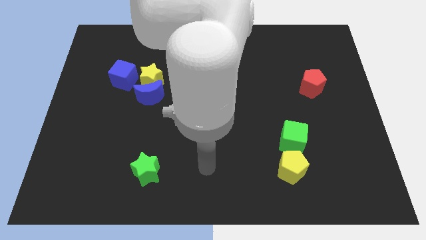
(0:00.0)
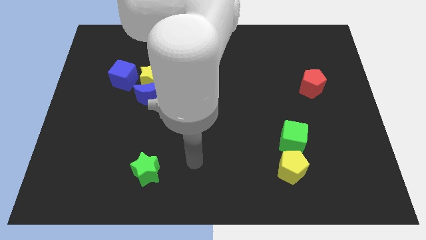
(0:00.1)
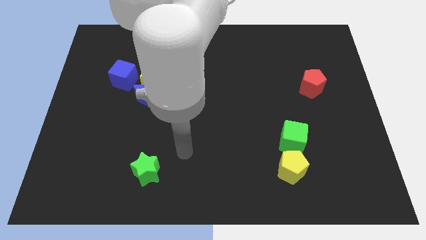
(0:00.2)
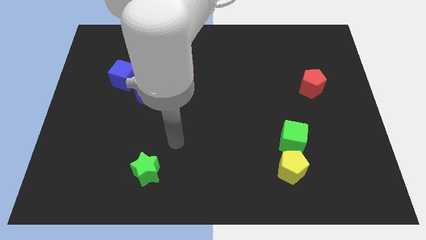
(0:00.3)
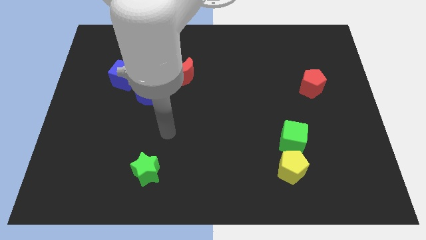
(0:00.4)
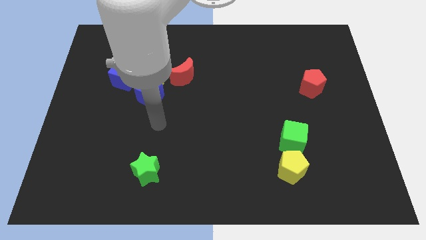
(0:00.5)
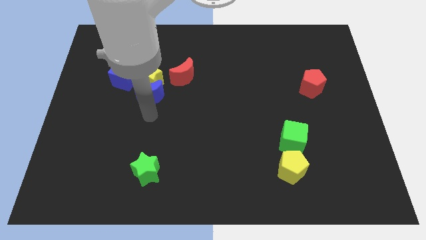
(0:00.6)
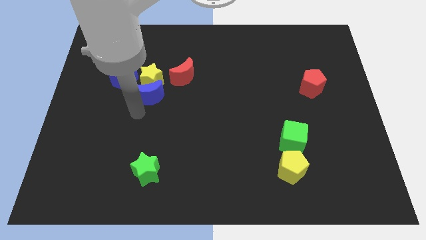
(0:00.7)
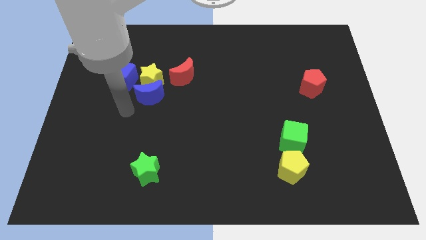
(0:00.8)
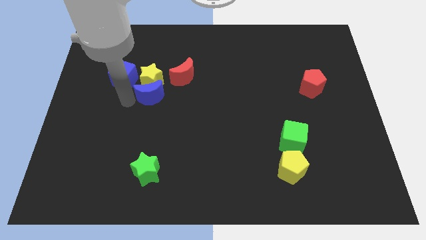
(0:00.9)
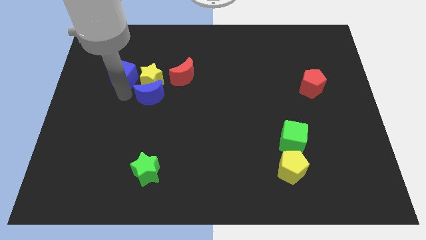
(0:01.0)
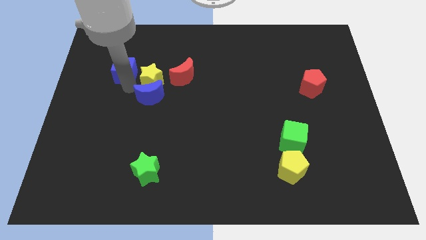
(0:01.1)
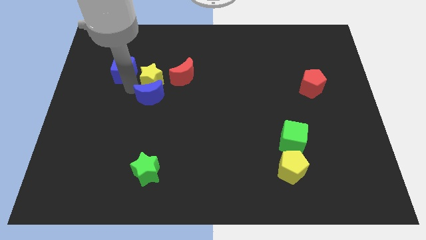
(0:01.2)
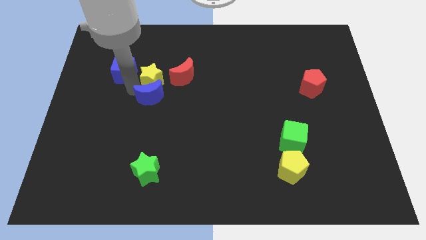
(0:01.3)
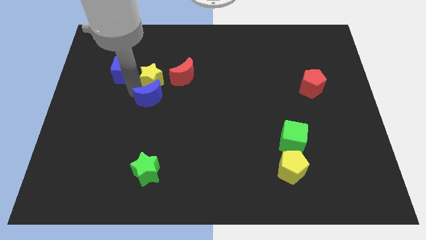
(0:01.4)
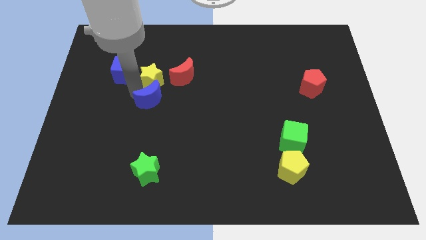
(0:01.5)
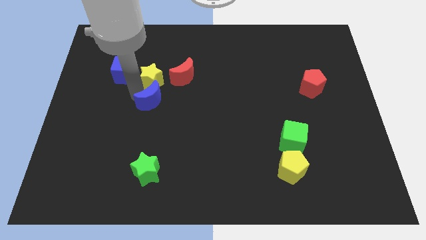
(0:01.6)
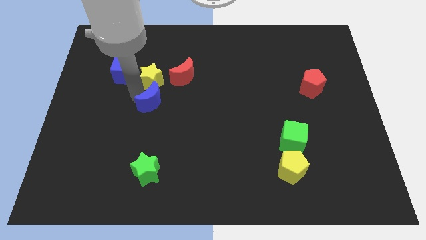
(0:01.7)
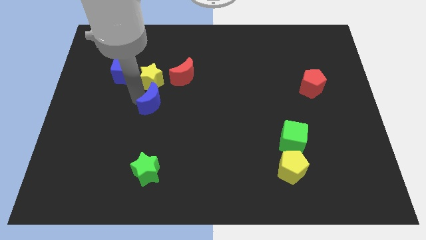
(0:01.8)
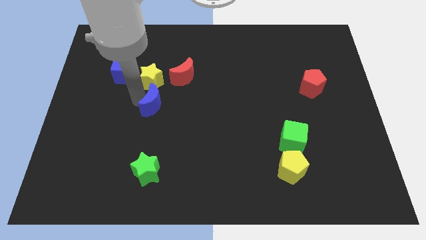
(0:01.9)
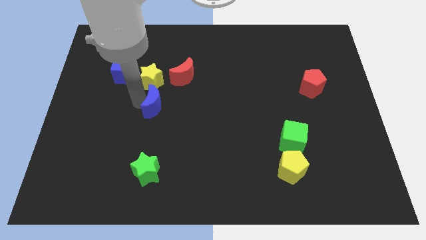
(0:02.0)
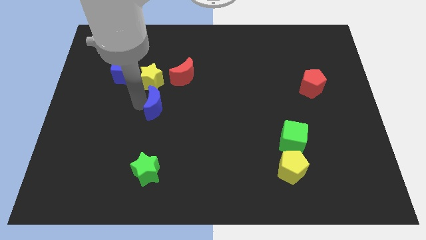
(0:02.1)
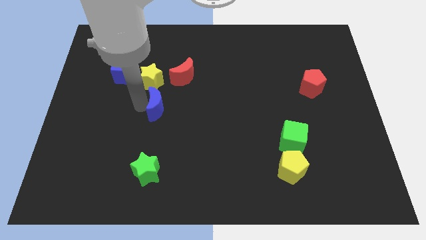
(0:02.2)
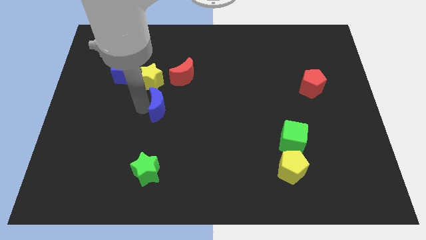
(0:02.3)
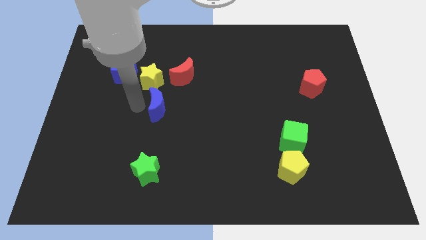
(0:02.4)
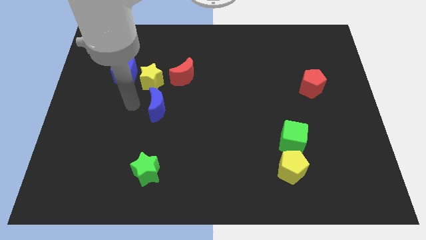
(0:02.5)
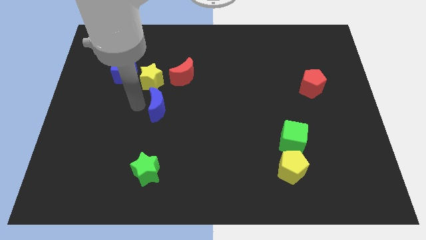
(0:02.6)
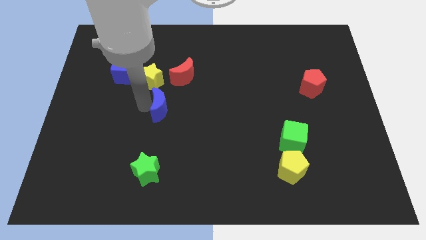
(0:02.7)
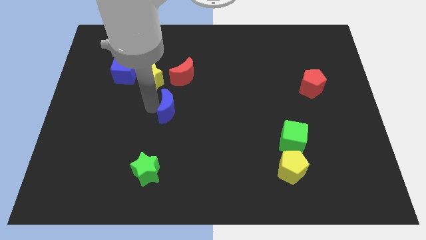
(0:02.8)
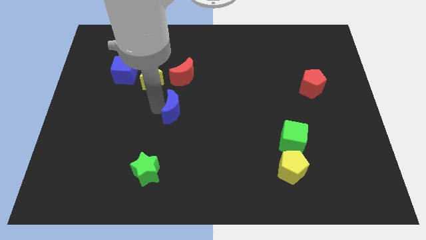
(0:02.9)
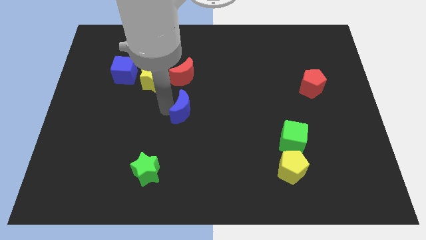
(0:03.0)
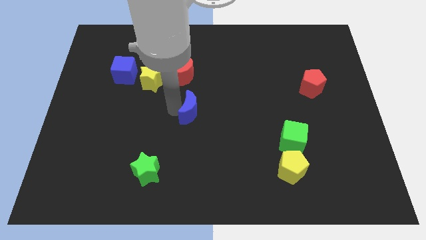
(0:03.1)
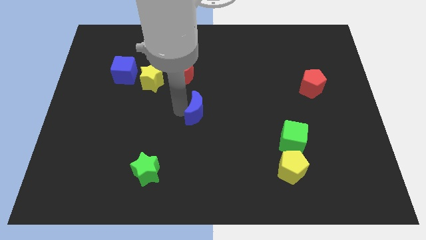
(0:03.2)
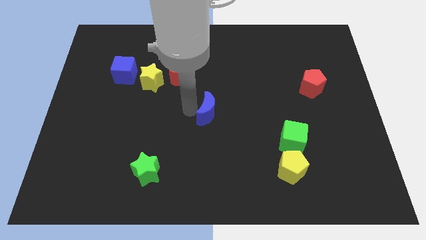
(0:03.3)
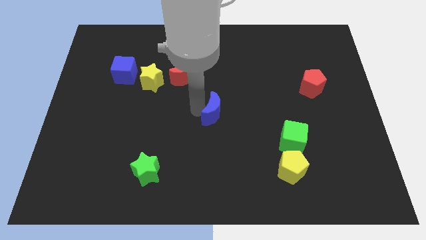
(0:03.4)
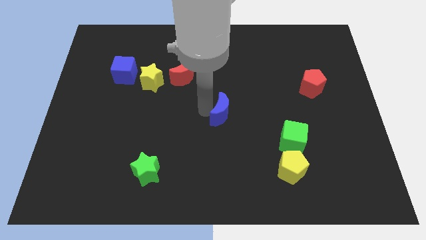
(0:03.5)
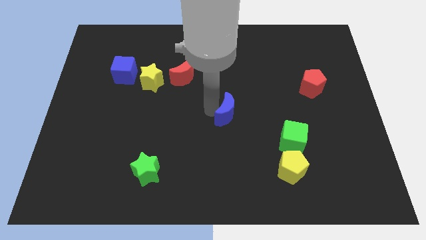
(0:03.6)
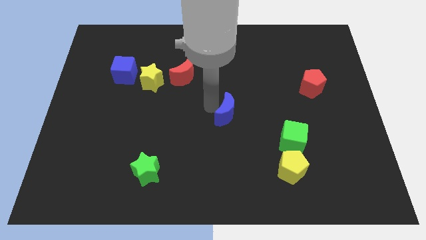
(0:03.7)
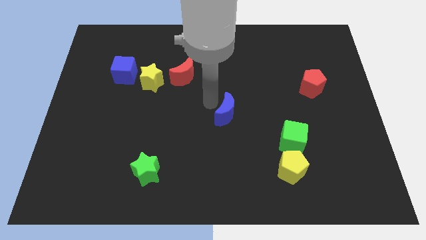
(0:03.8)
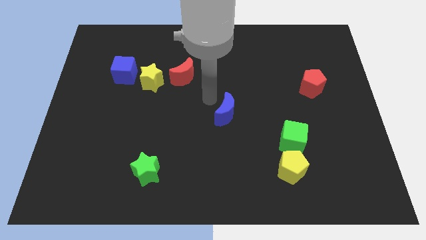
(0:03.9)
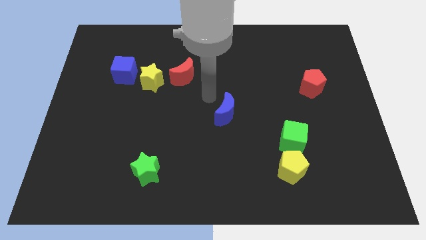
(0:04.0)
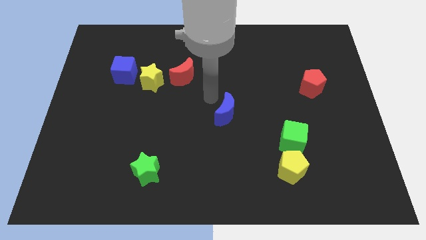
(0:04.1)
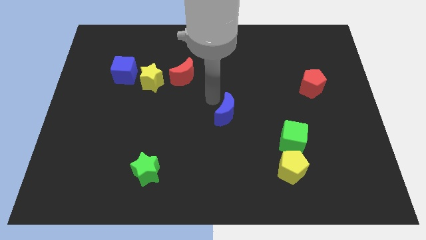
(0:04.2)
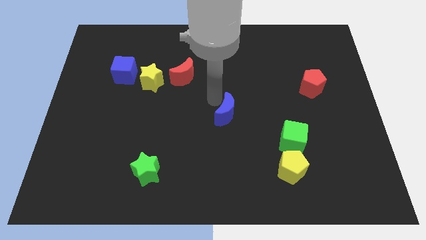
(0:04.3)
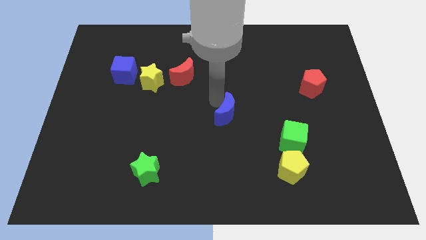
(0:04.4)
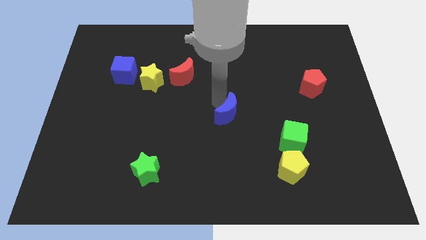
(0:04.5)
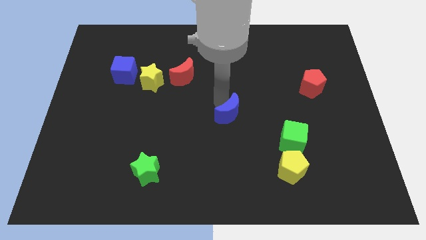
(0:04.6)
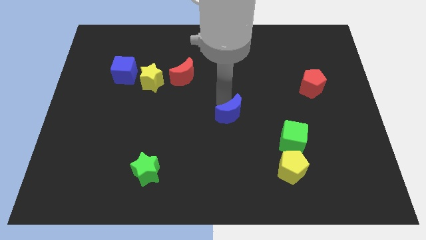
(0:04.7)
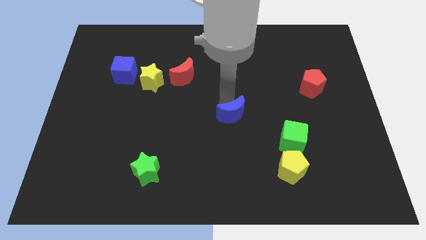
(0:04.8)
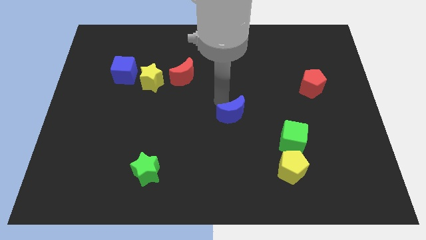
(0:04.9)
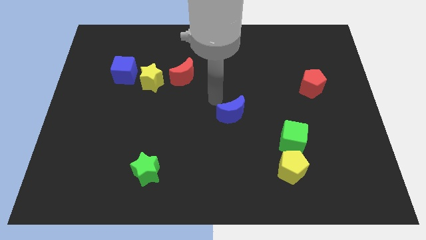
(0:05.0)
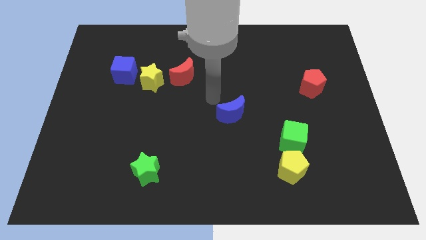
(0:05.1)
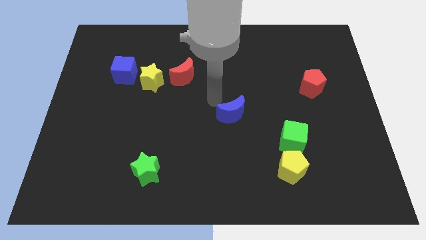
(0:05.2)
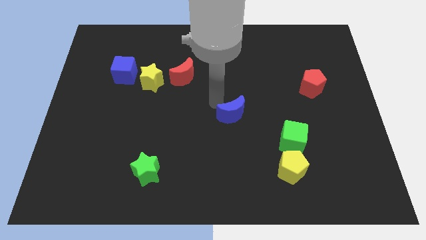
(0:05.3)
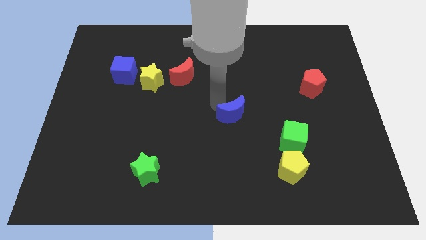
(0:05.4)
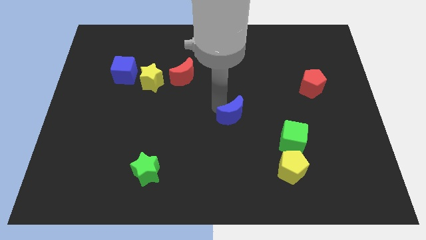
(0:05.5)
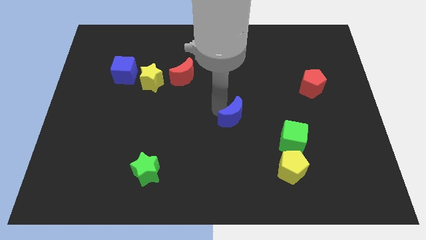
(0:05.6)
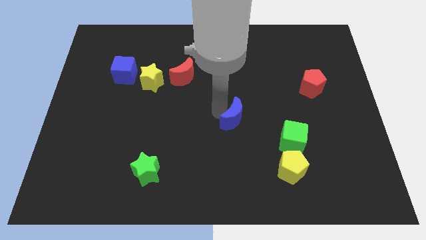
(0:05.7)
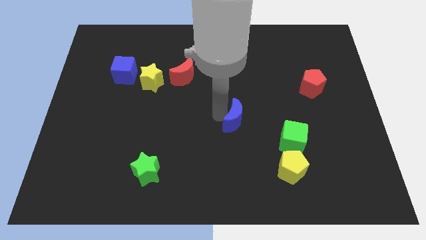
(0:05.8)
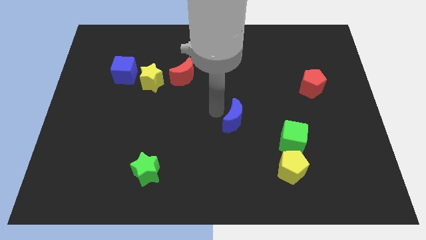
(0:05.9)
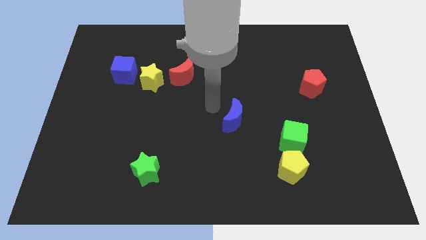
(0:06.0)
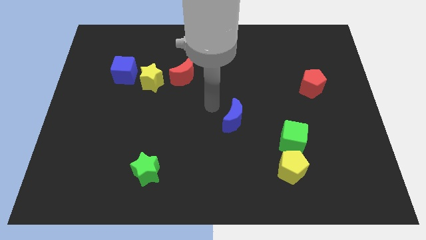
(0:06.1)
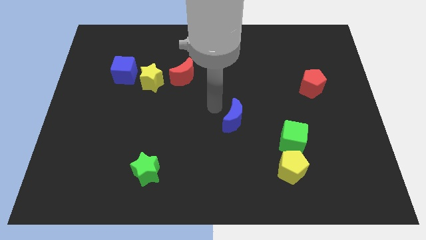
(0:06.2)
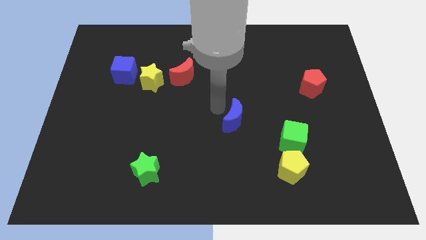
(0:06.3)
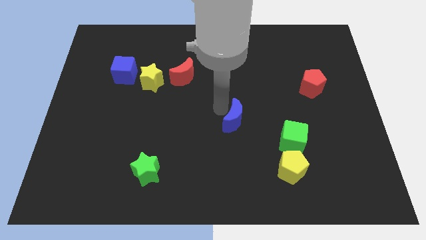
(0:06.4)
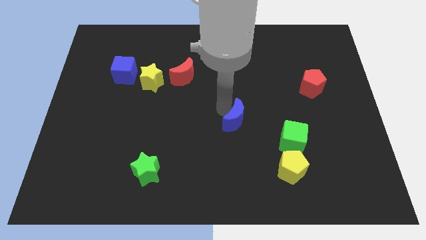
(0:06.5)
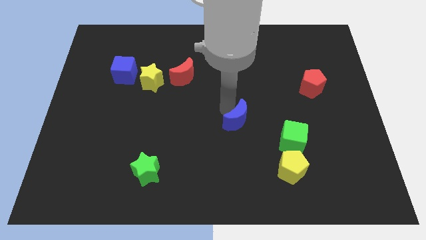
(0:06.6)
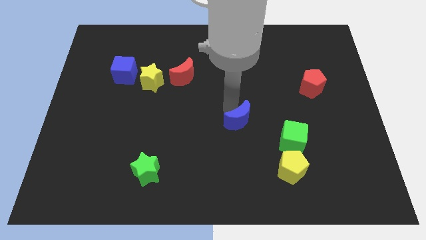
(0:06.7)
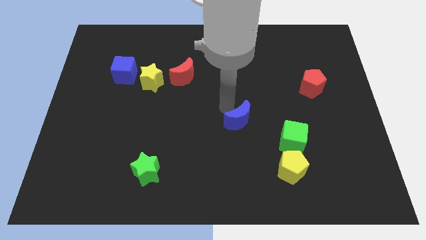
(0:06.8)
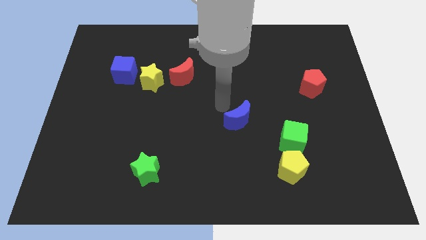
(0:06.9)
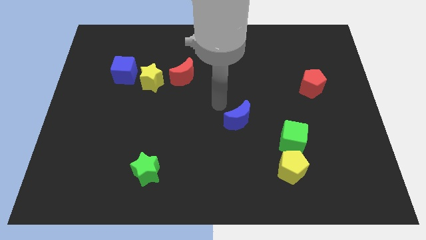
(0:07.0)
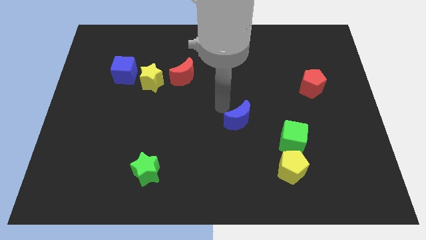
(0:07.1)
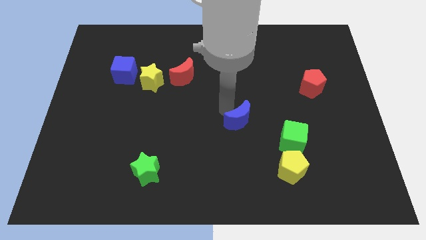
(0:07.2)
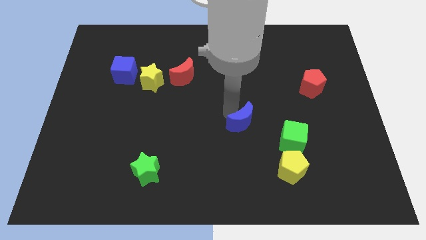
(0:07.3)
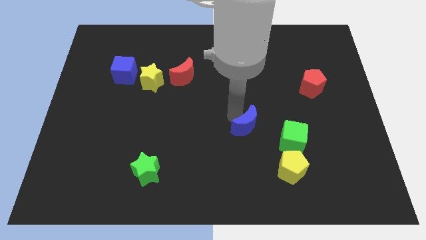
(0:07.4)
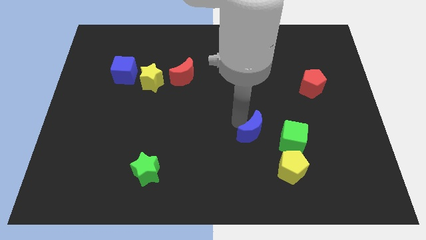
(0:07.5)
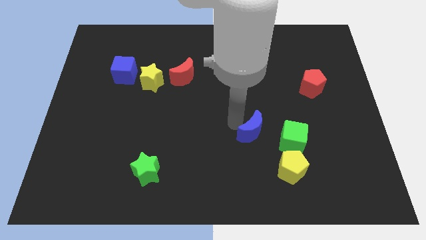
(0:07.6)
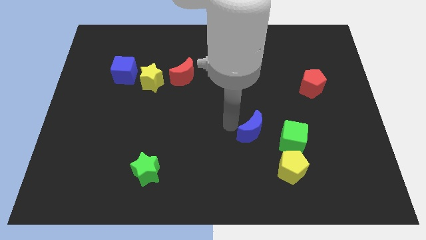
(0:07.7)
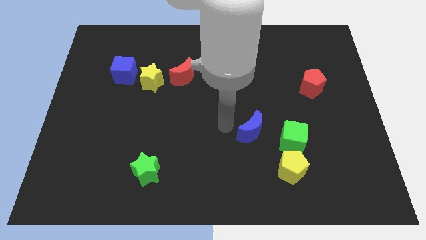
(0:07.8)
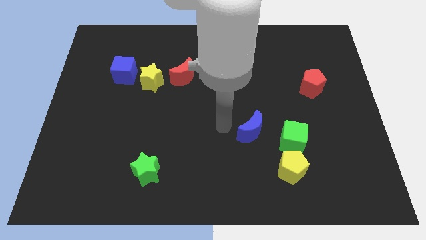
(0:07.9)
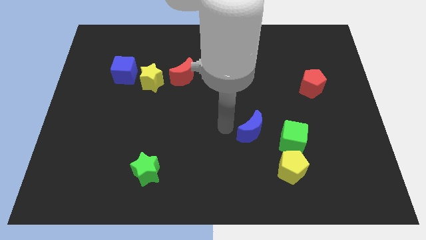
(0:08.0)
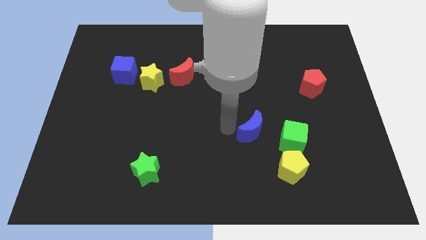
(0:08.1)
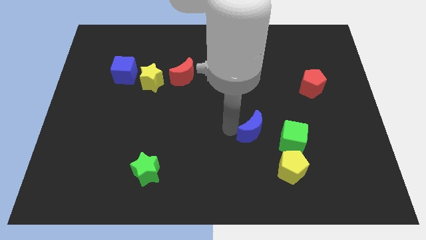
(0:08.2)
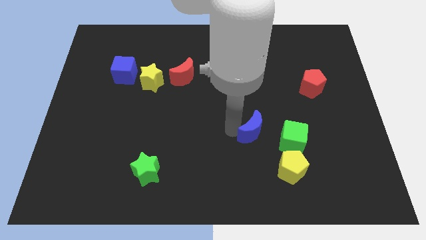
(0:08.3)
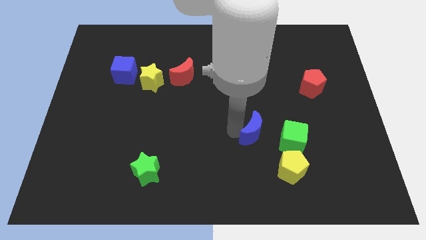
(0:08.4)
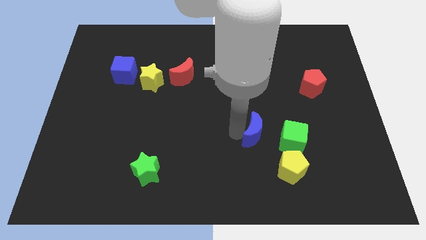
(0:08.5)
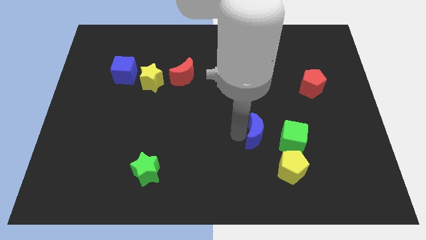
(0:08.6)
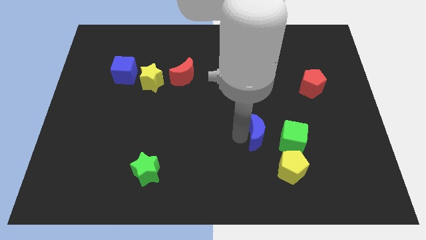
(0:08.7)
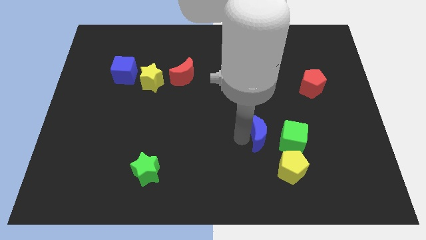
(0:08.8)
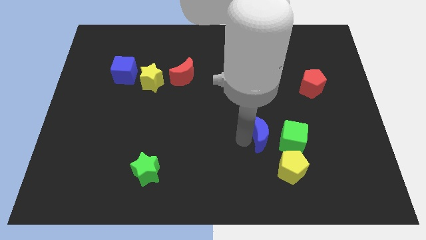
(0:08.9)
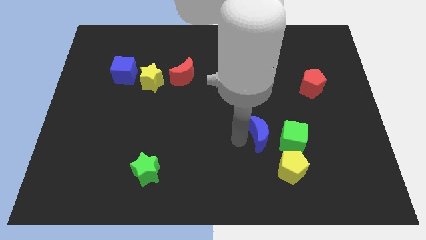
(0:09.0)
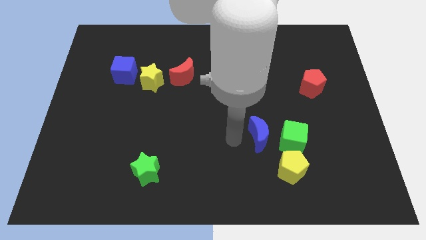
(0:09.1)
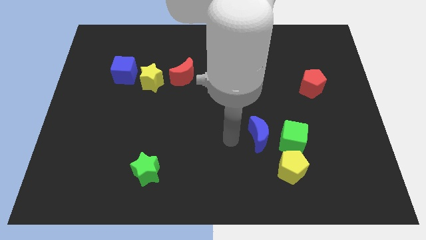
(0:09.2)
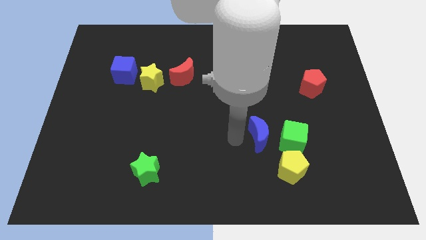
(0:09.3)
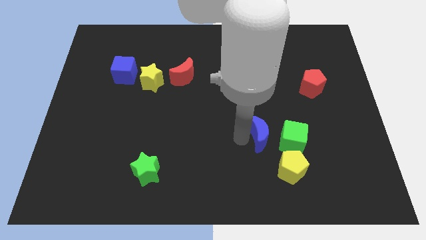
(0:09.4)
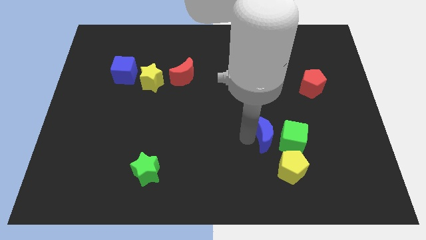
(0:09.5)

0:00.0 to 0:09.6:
put the blue moon to the green cube
